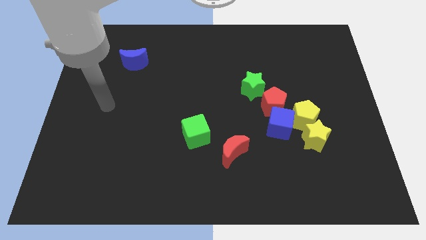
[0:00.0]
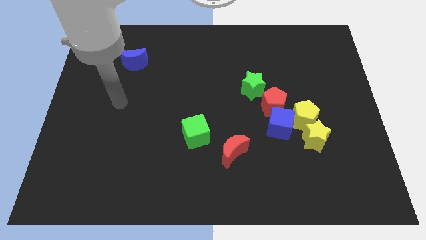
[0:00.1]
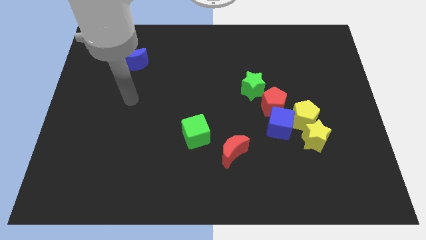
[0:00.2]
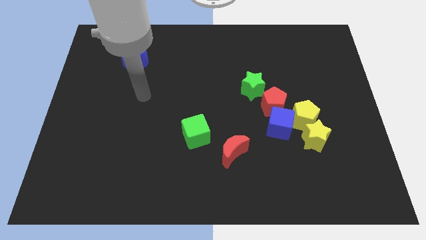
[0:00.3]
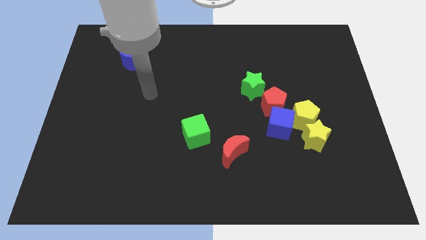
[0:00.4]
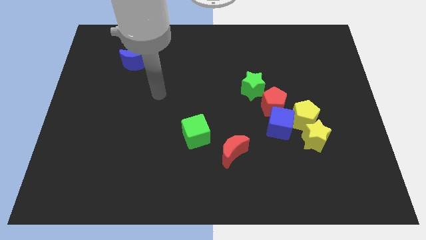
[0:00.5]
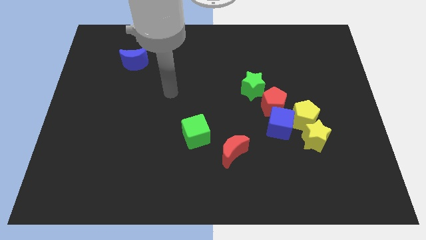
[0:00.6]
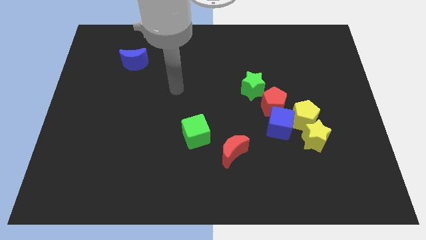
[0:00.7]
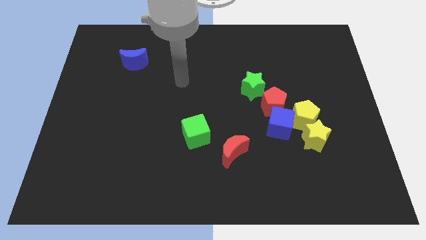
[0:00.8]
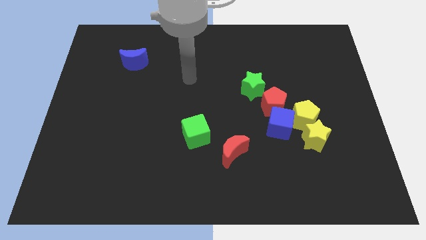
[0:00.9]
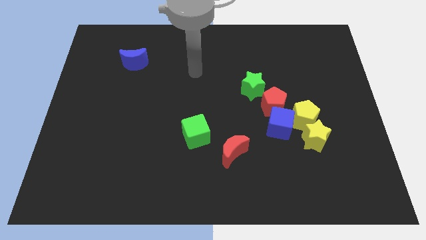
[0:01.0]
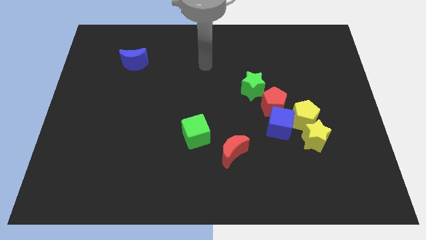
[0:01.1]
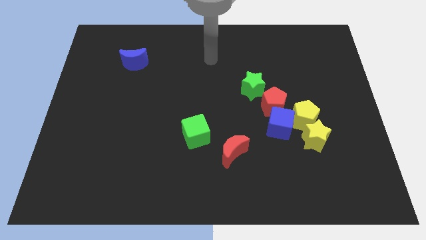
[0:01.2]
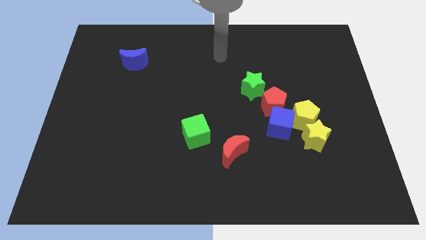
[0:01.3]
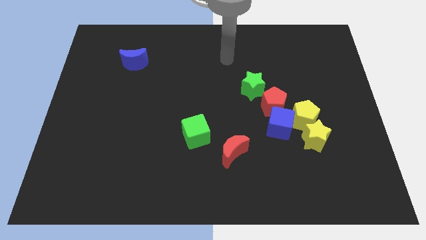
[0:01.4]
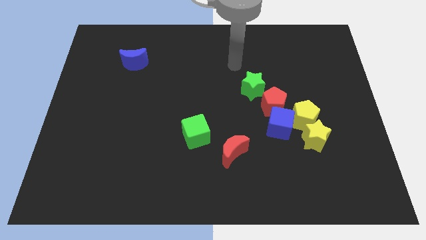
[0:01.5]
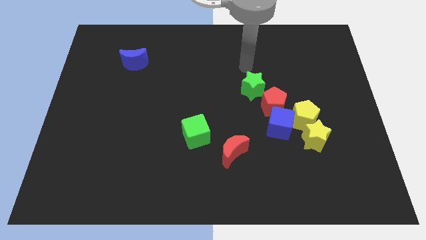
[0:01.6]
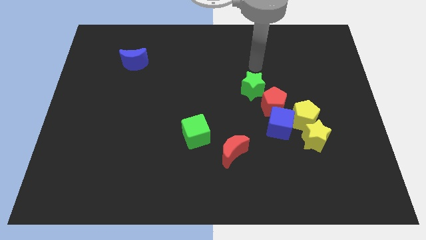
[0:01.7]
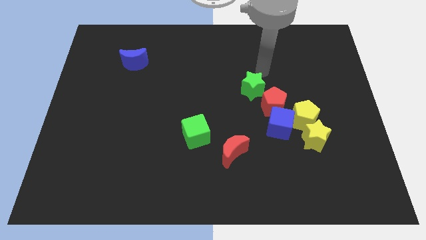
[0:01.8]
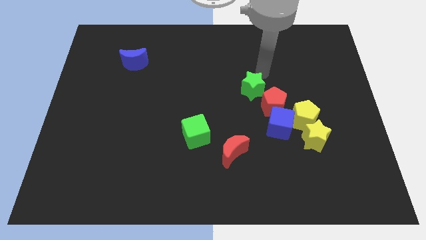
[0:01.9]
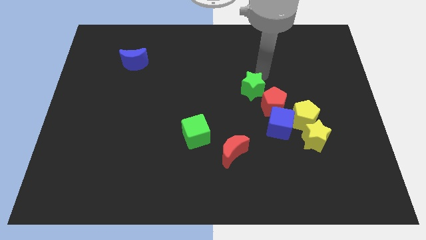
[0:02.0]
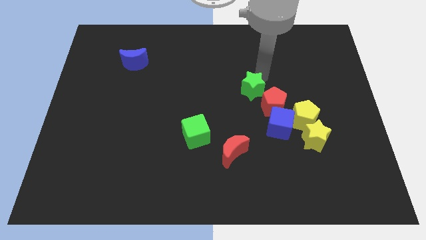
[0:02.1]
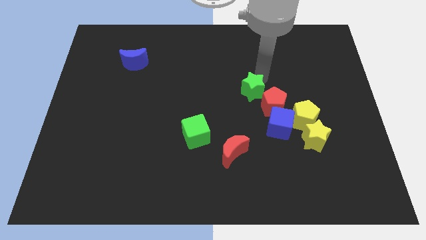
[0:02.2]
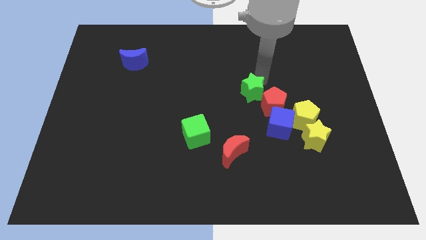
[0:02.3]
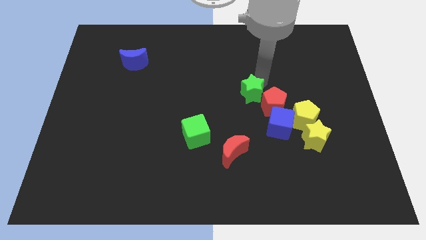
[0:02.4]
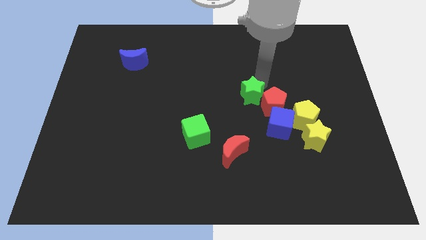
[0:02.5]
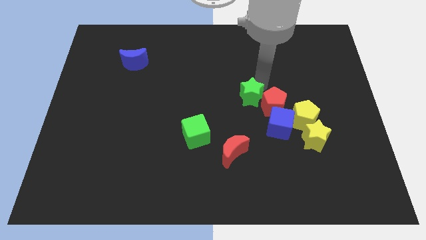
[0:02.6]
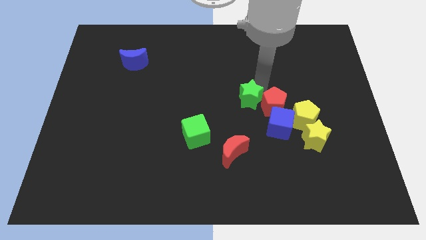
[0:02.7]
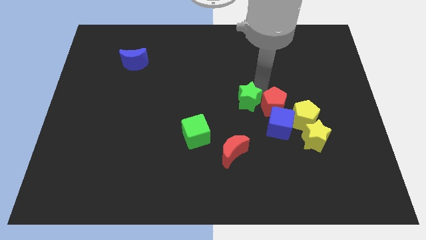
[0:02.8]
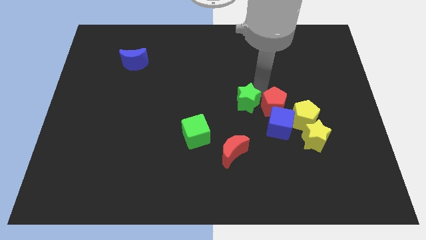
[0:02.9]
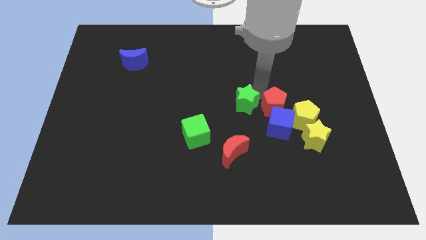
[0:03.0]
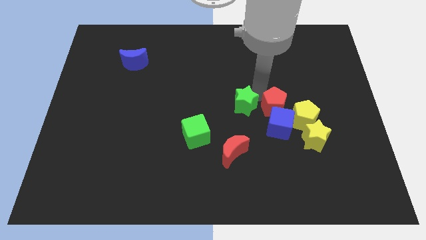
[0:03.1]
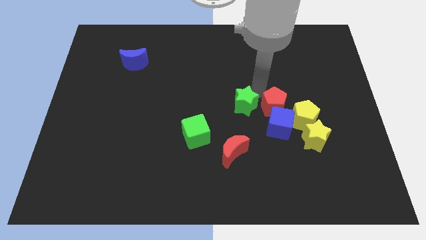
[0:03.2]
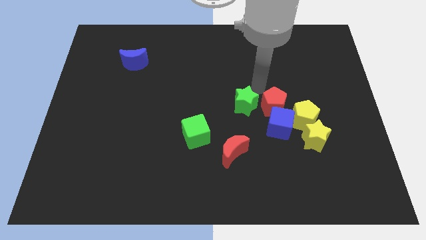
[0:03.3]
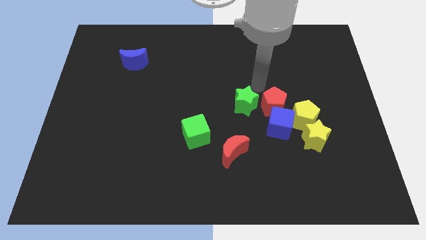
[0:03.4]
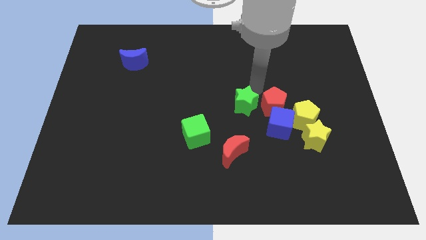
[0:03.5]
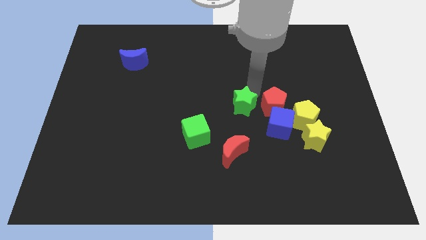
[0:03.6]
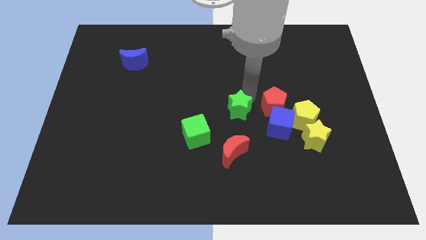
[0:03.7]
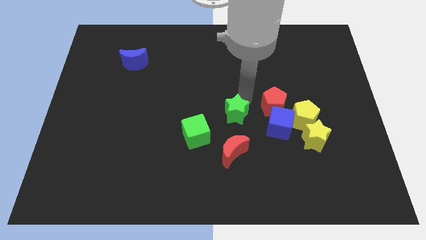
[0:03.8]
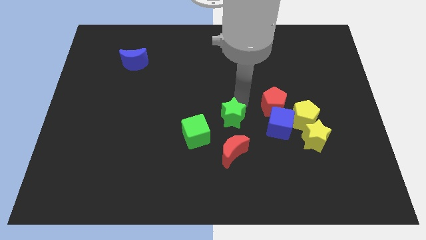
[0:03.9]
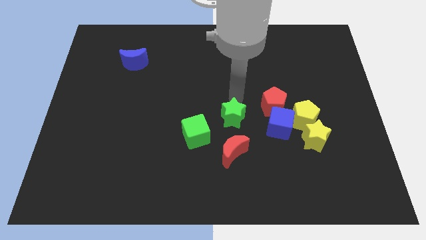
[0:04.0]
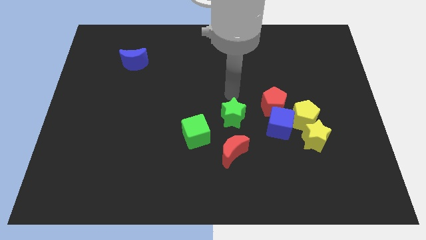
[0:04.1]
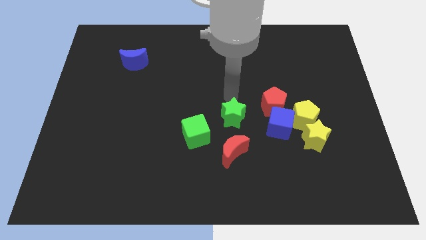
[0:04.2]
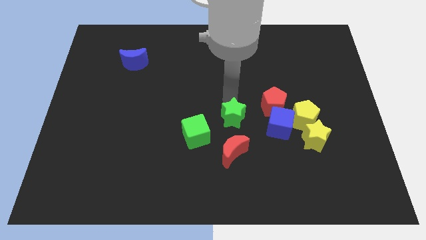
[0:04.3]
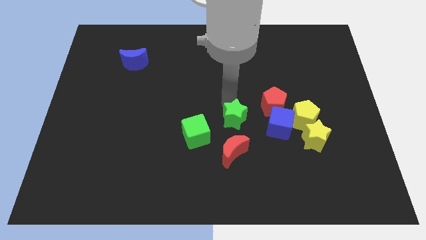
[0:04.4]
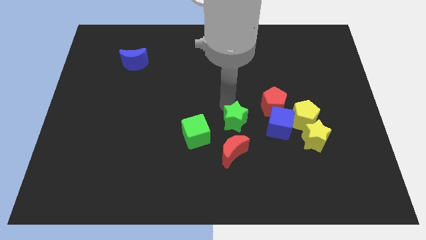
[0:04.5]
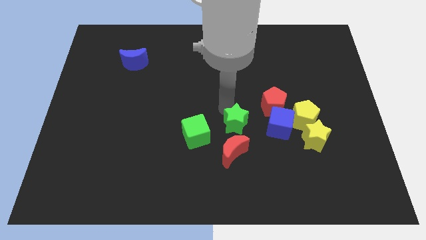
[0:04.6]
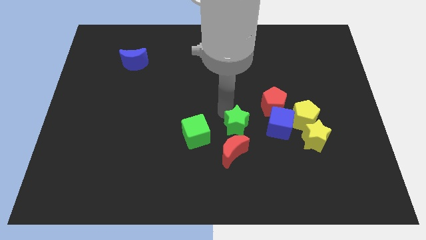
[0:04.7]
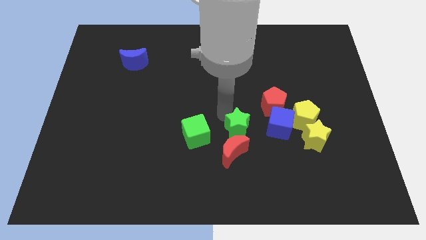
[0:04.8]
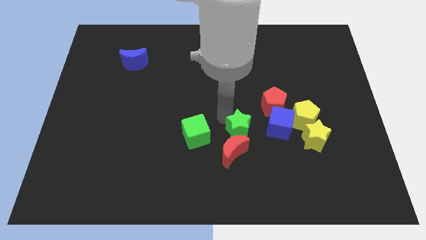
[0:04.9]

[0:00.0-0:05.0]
slide the green star next to the red moon

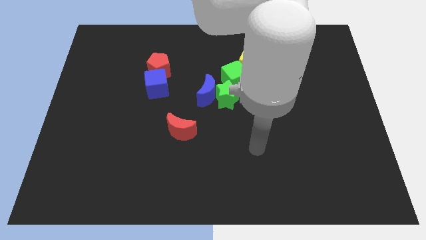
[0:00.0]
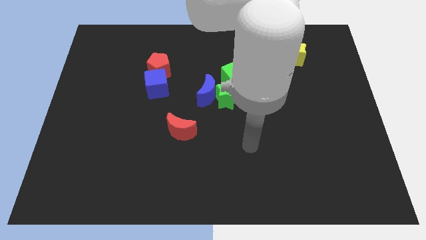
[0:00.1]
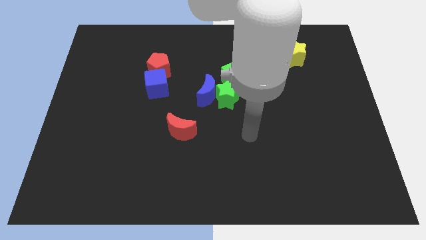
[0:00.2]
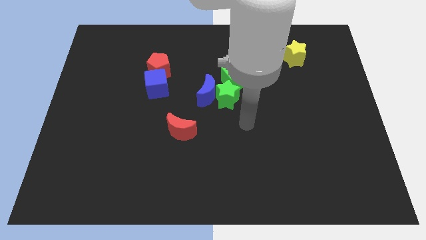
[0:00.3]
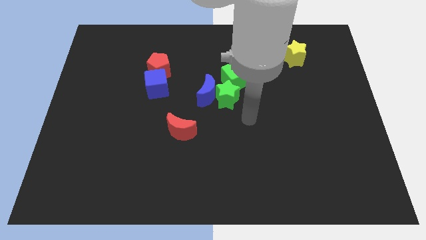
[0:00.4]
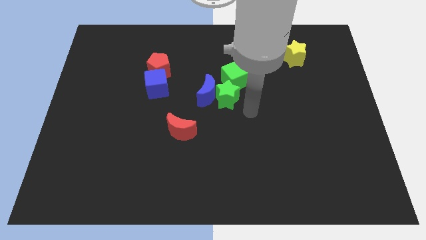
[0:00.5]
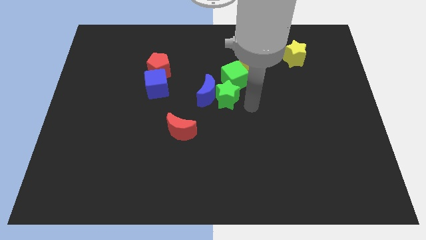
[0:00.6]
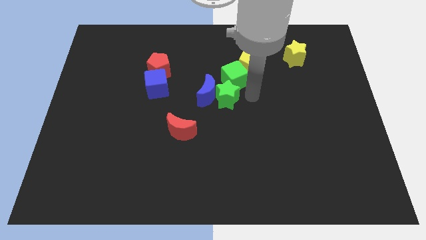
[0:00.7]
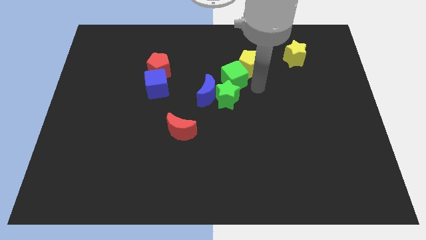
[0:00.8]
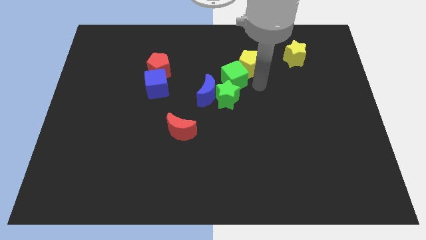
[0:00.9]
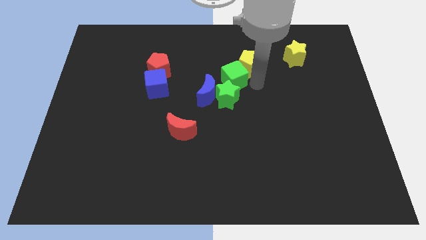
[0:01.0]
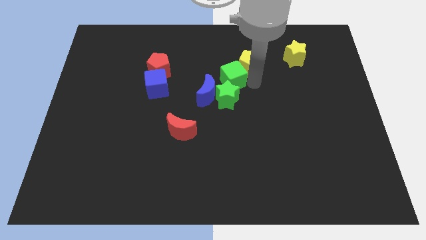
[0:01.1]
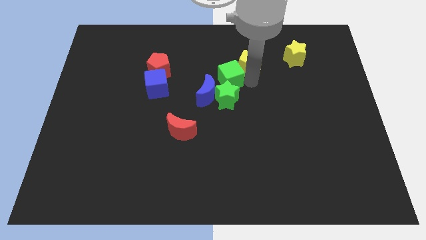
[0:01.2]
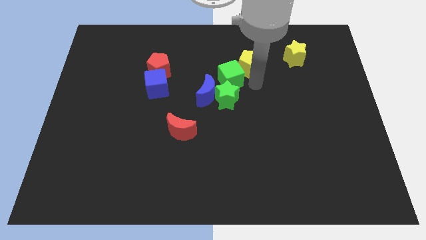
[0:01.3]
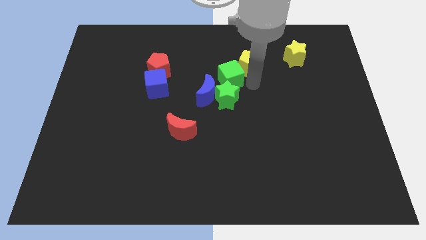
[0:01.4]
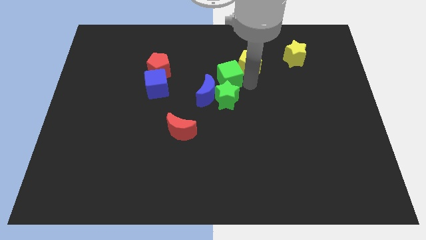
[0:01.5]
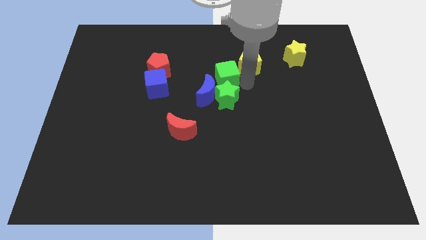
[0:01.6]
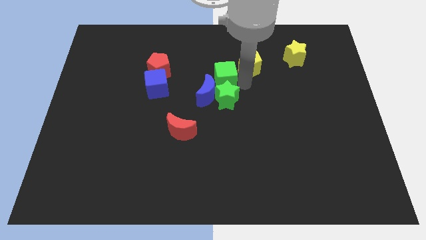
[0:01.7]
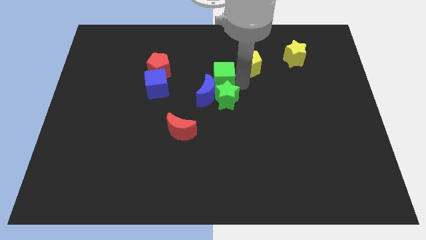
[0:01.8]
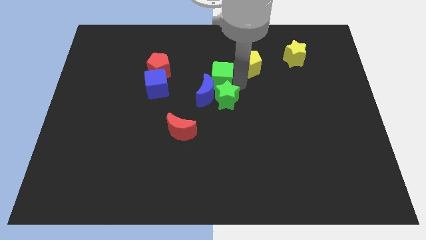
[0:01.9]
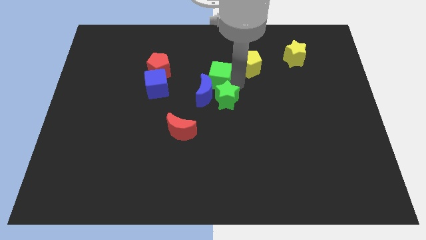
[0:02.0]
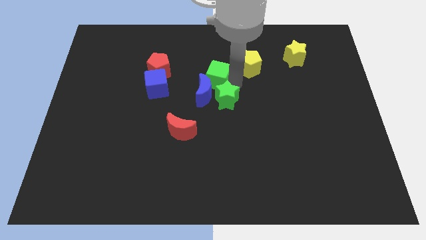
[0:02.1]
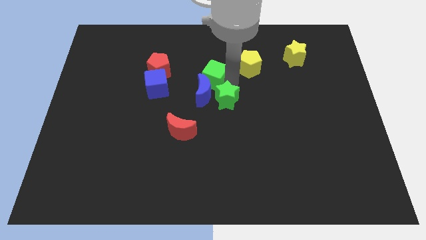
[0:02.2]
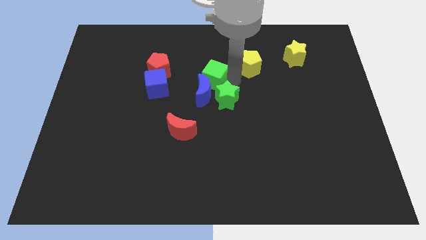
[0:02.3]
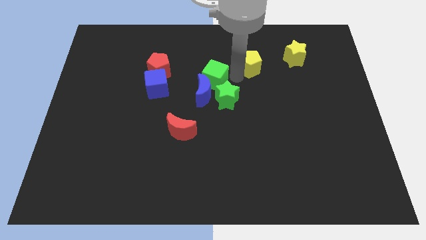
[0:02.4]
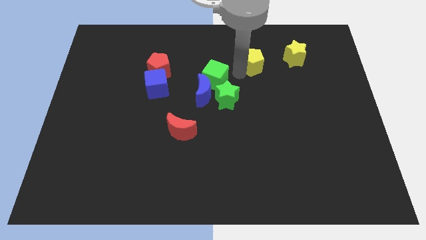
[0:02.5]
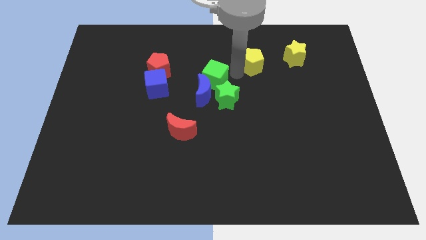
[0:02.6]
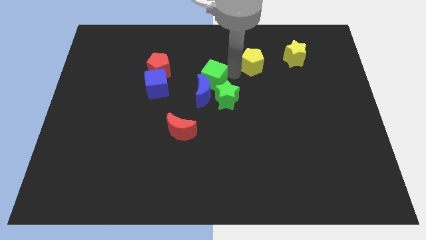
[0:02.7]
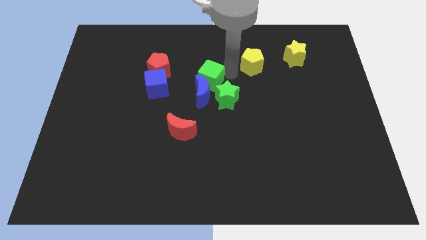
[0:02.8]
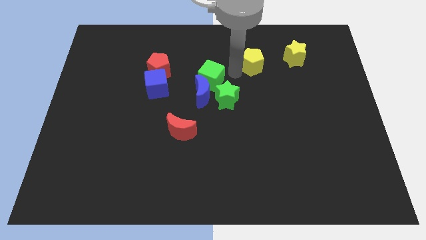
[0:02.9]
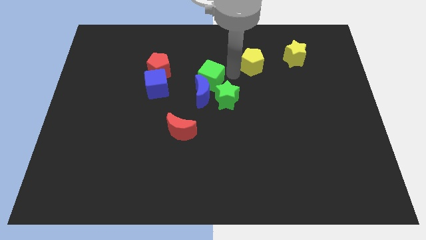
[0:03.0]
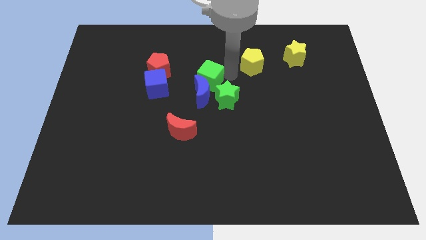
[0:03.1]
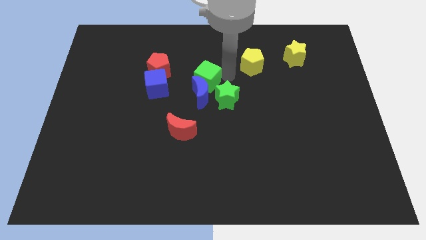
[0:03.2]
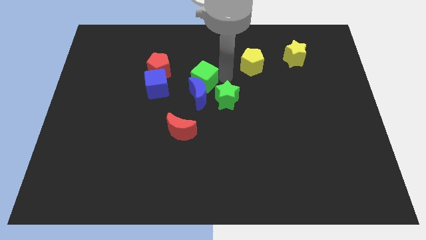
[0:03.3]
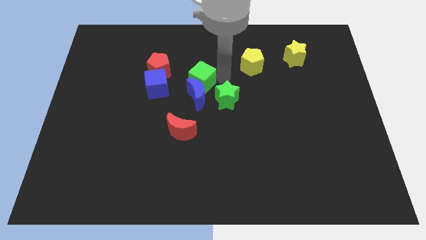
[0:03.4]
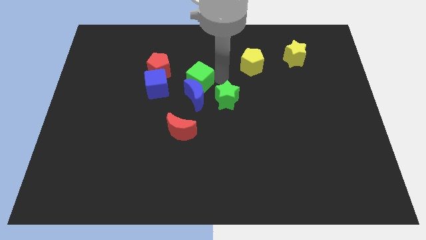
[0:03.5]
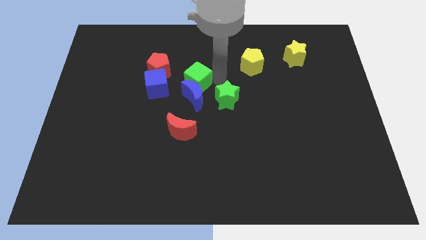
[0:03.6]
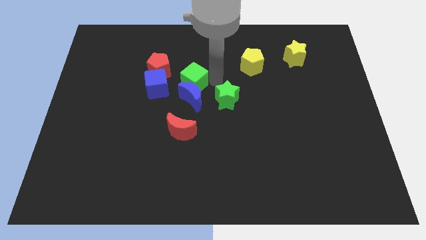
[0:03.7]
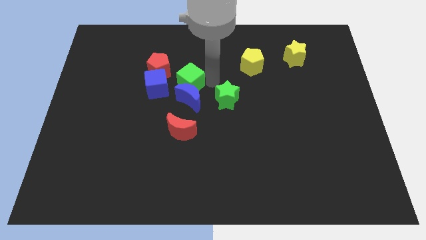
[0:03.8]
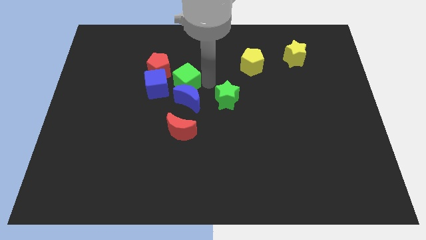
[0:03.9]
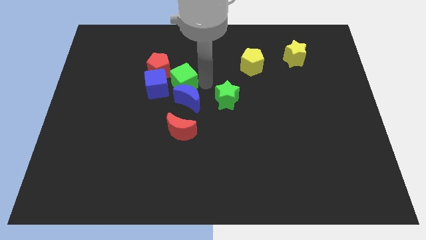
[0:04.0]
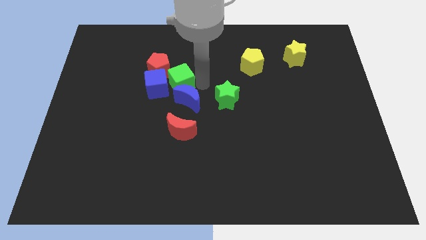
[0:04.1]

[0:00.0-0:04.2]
move the green cube next to the blue cube
